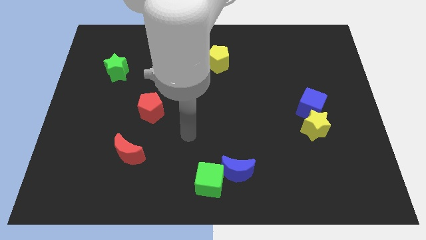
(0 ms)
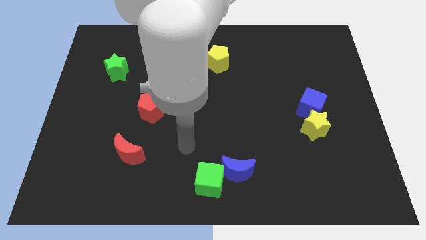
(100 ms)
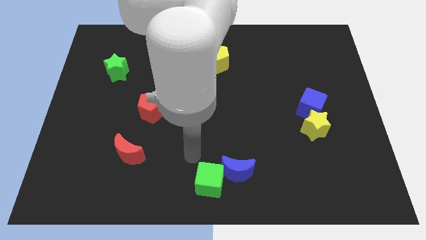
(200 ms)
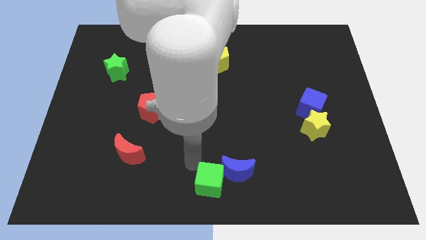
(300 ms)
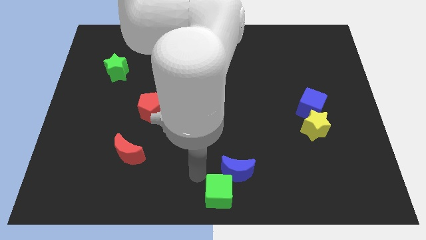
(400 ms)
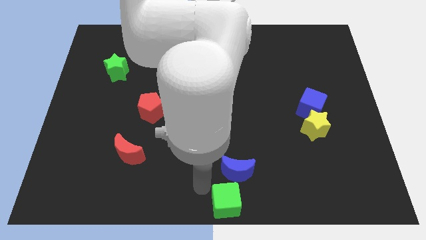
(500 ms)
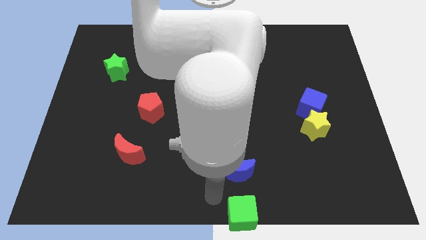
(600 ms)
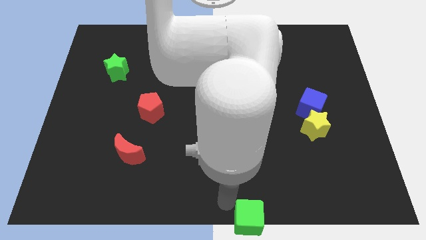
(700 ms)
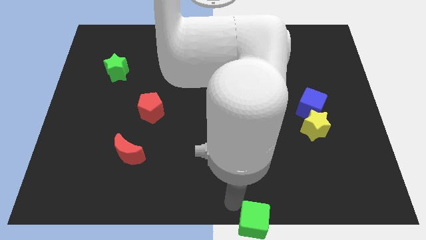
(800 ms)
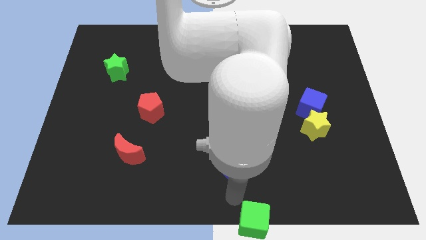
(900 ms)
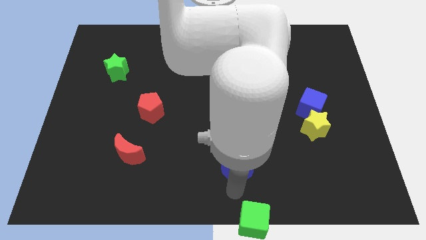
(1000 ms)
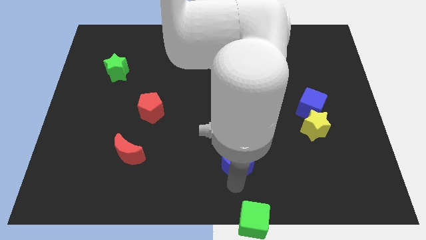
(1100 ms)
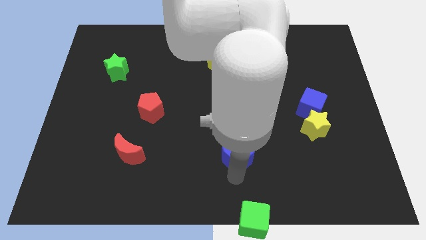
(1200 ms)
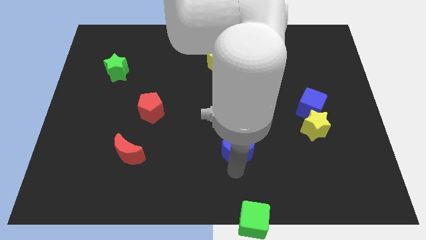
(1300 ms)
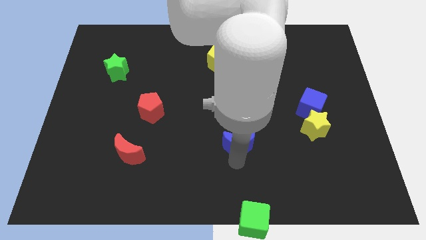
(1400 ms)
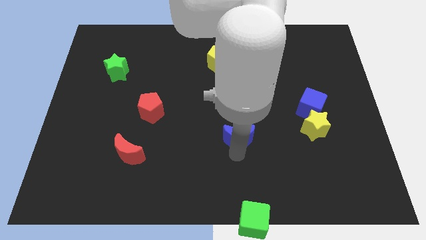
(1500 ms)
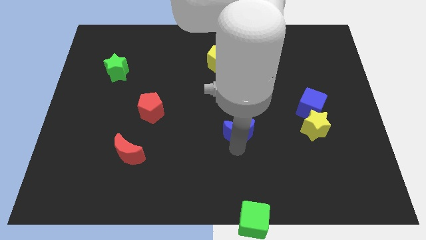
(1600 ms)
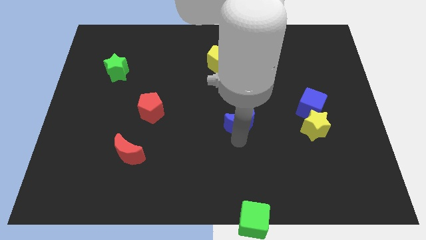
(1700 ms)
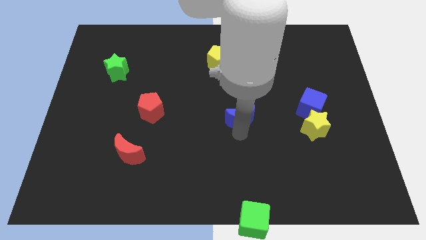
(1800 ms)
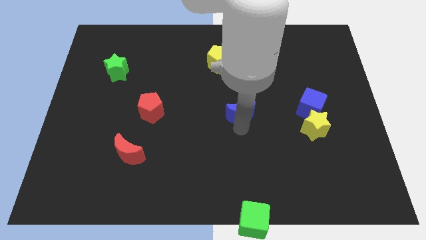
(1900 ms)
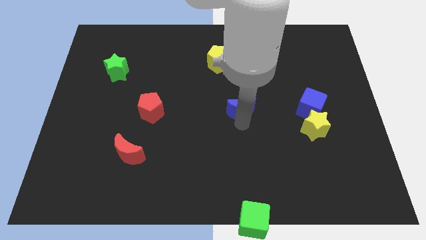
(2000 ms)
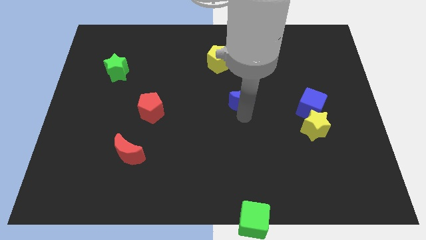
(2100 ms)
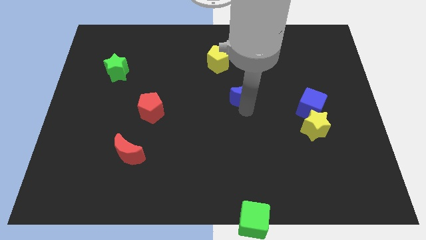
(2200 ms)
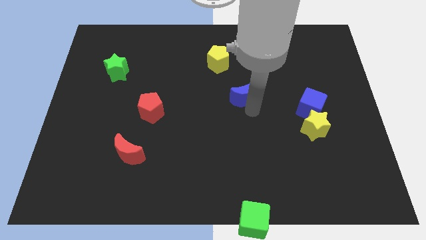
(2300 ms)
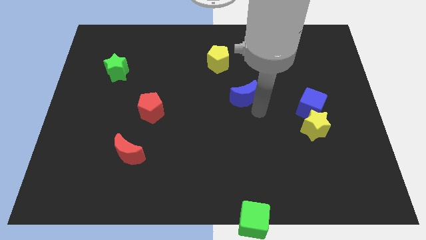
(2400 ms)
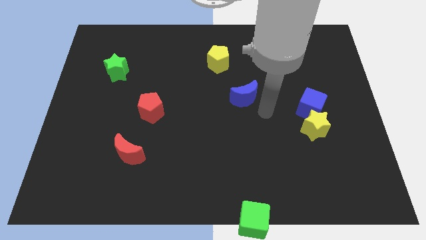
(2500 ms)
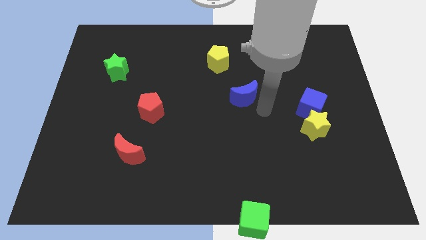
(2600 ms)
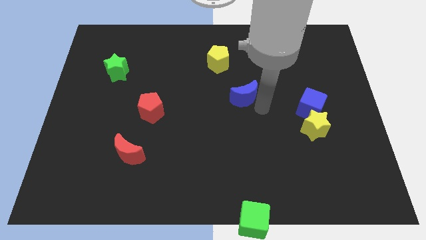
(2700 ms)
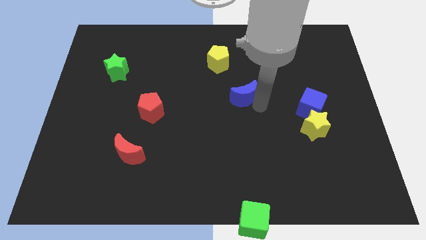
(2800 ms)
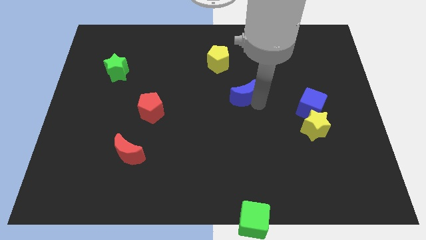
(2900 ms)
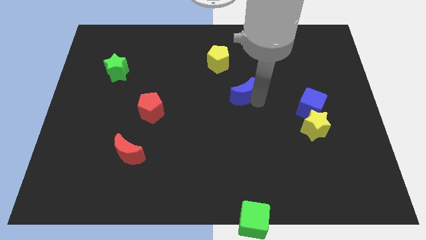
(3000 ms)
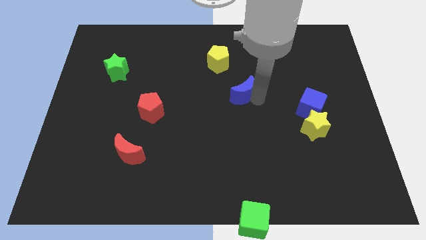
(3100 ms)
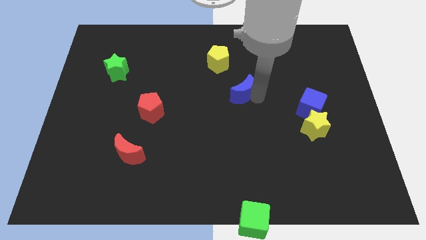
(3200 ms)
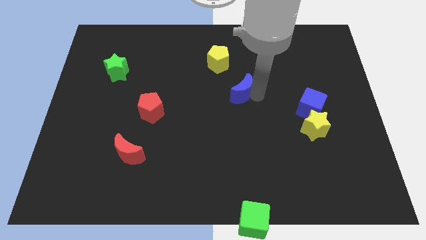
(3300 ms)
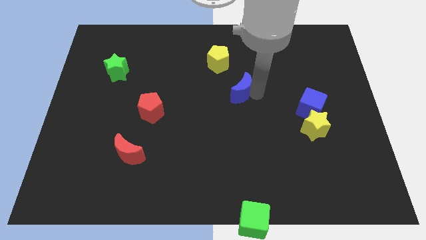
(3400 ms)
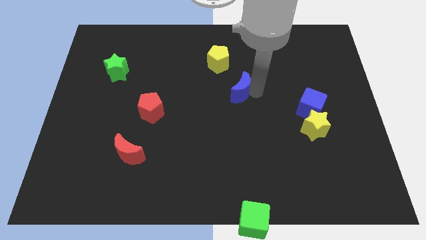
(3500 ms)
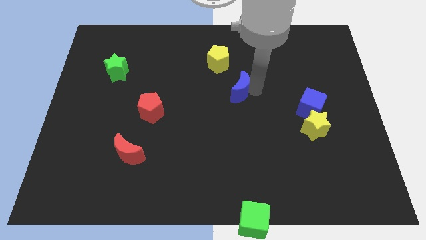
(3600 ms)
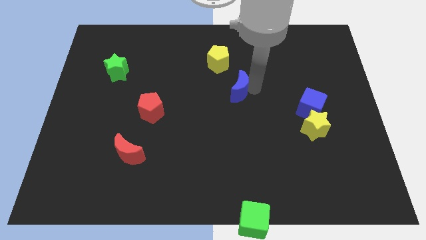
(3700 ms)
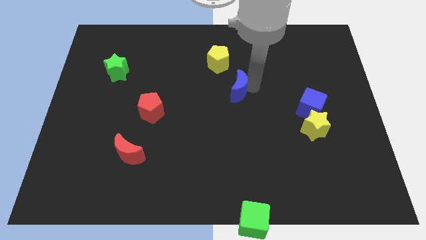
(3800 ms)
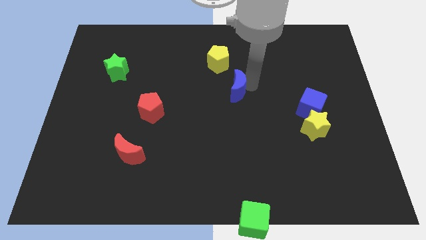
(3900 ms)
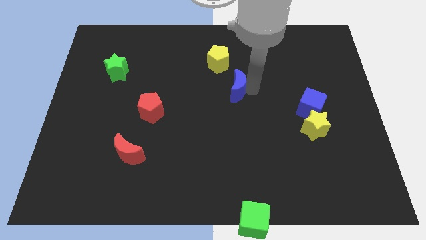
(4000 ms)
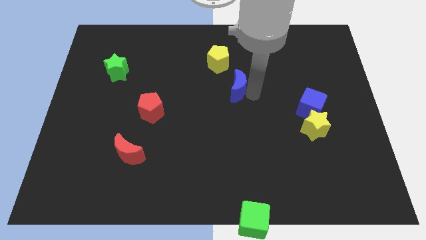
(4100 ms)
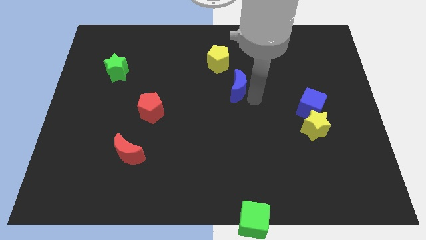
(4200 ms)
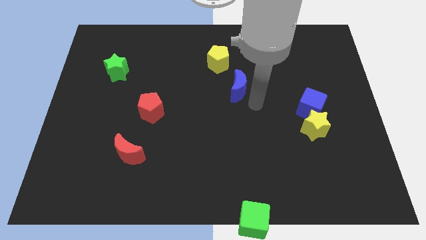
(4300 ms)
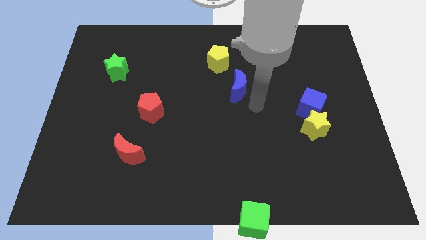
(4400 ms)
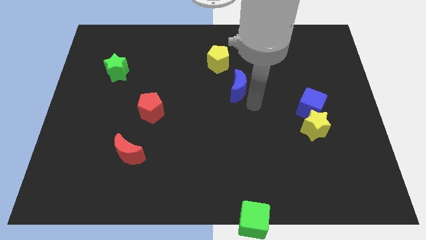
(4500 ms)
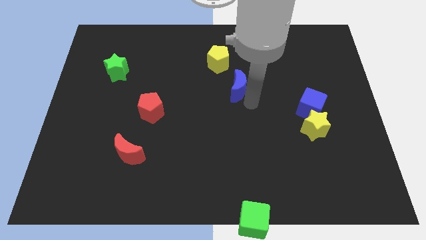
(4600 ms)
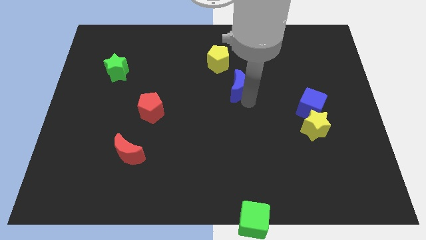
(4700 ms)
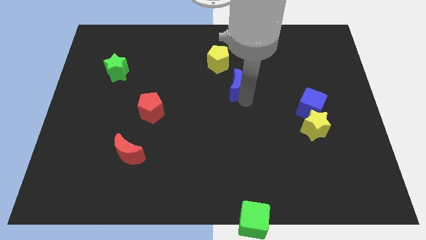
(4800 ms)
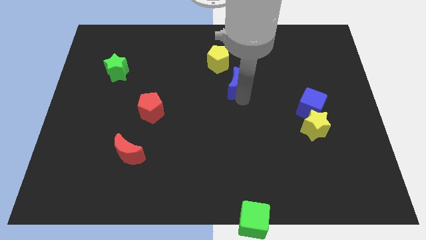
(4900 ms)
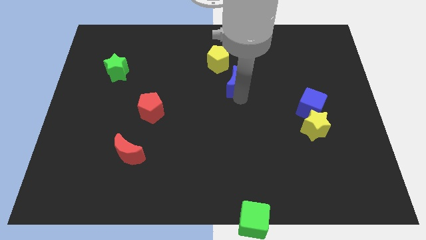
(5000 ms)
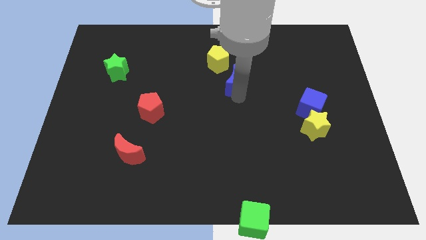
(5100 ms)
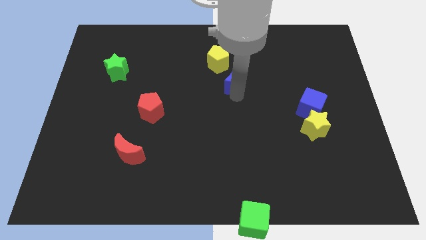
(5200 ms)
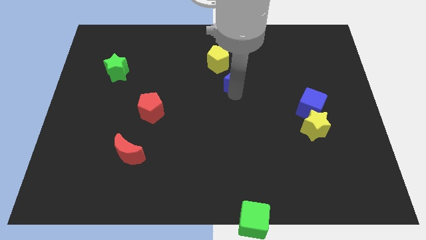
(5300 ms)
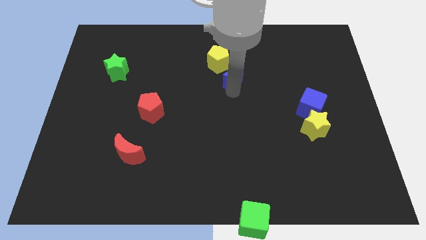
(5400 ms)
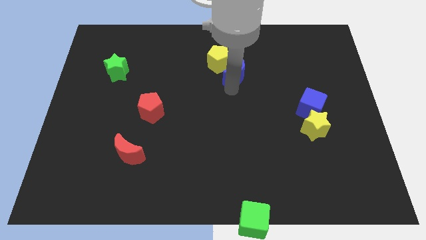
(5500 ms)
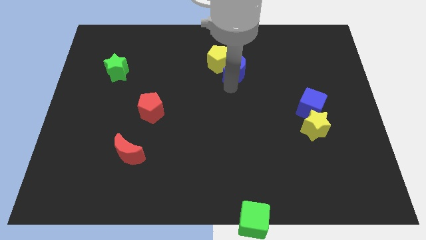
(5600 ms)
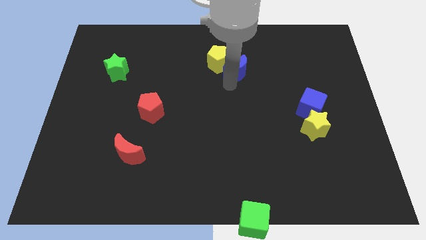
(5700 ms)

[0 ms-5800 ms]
slide the blue moon next to the yellow pentagon

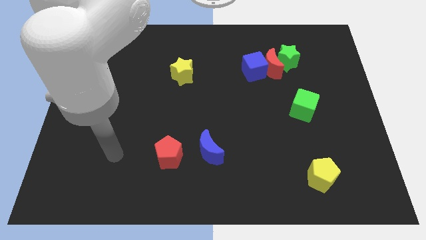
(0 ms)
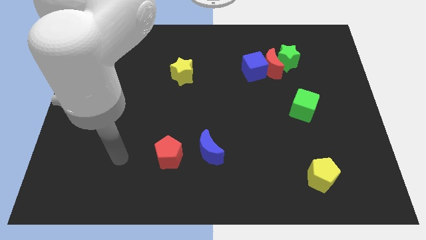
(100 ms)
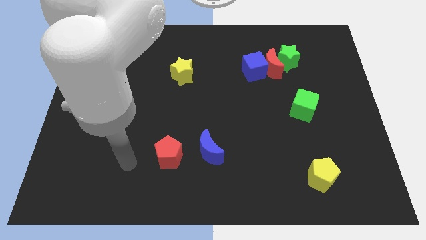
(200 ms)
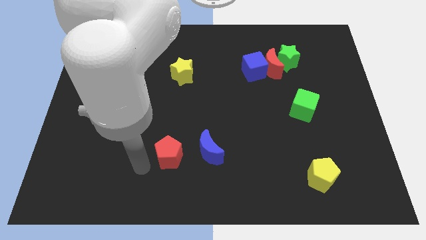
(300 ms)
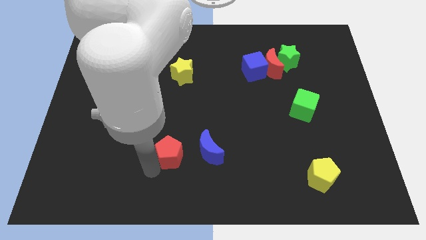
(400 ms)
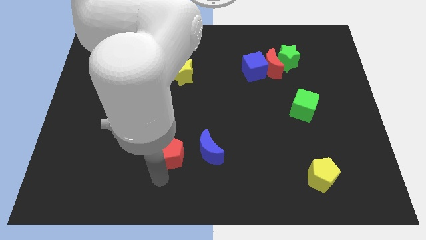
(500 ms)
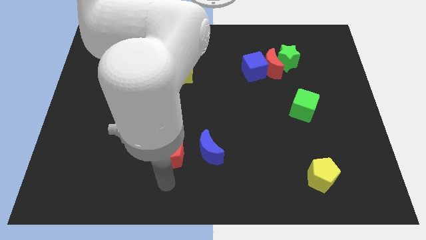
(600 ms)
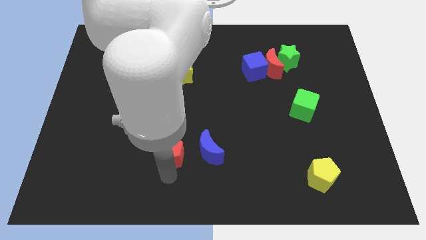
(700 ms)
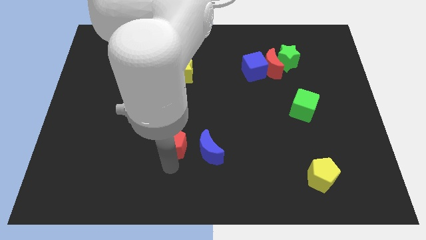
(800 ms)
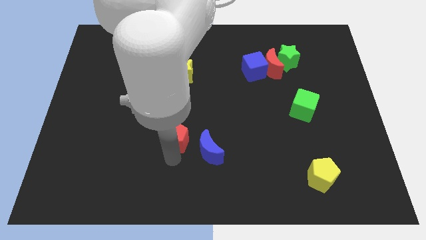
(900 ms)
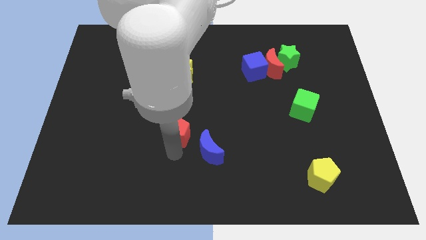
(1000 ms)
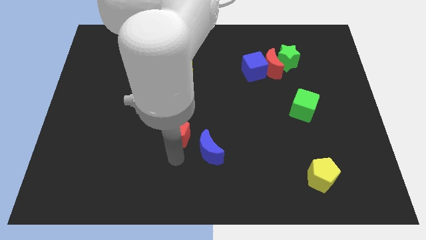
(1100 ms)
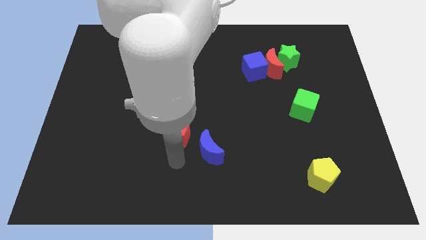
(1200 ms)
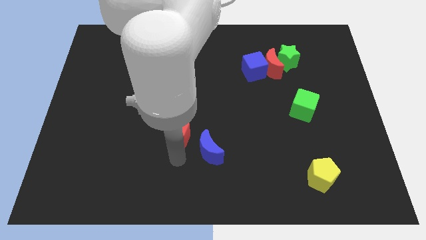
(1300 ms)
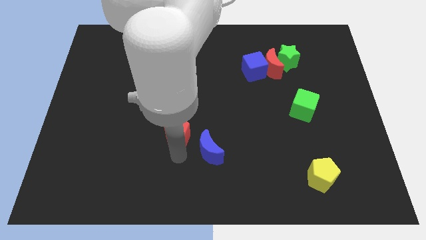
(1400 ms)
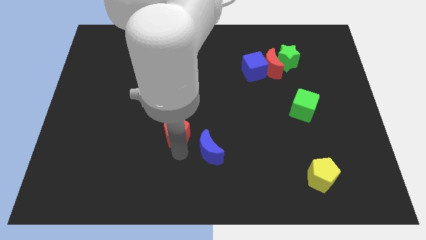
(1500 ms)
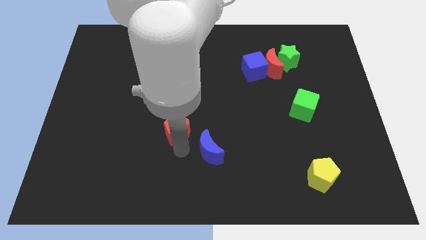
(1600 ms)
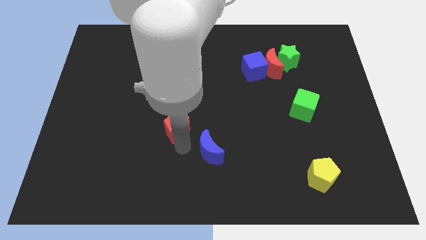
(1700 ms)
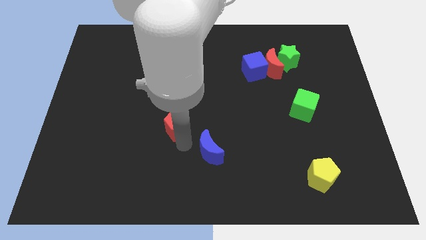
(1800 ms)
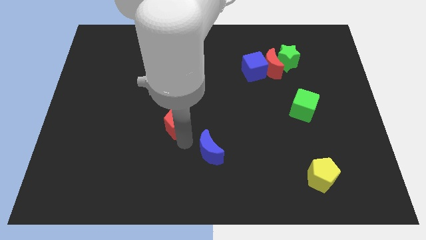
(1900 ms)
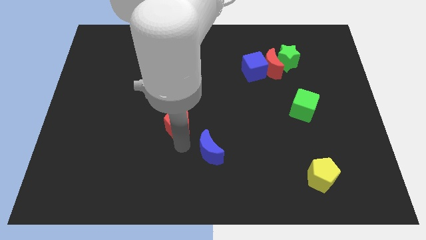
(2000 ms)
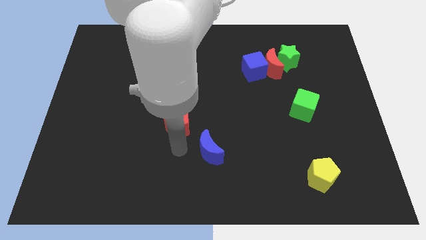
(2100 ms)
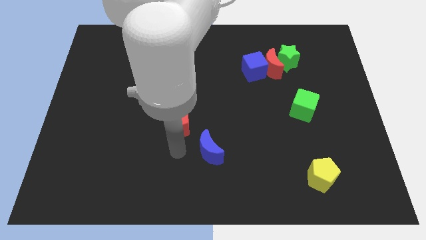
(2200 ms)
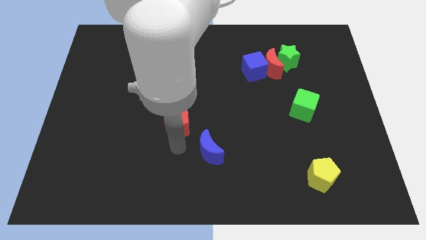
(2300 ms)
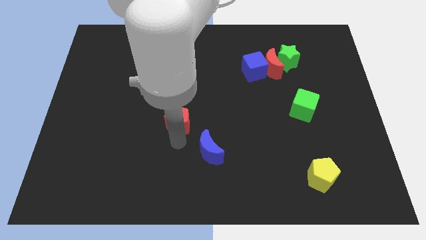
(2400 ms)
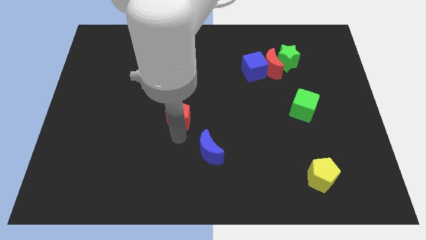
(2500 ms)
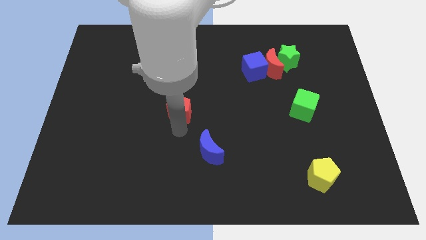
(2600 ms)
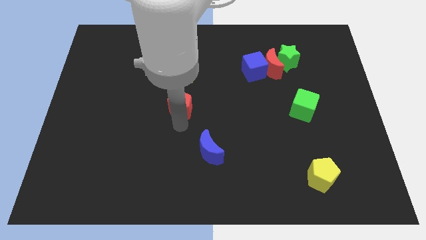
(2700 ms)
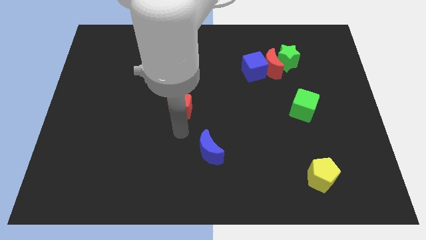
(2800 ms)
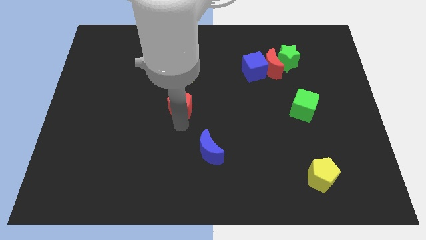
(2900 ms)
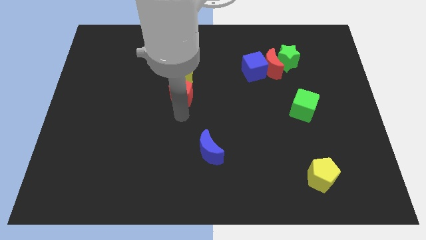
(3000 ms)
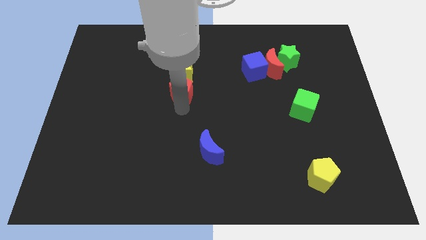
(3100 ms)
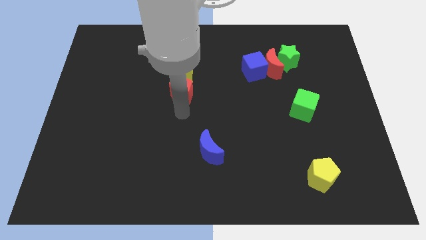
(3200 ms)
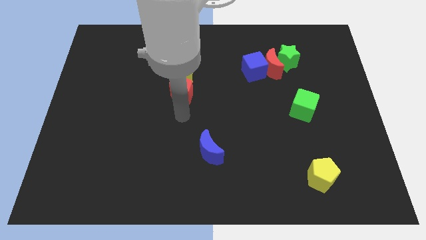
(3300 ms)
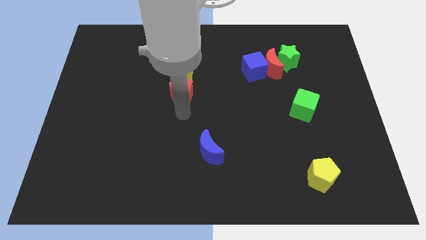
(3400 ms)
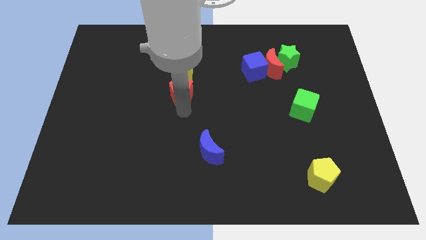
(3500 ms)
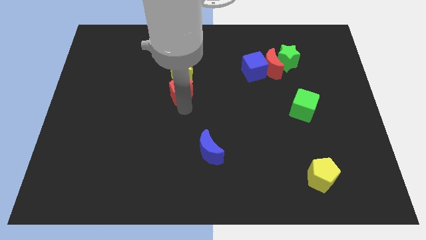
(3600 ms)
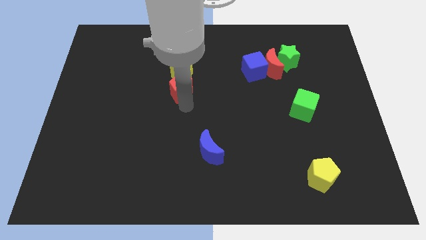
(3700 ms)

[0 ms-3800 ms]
slide the red pentagon next to the yellow star
